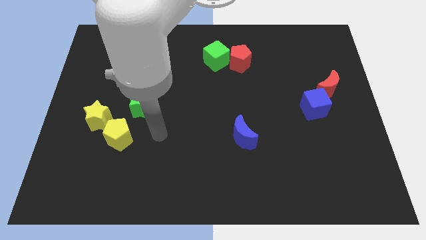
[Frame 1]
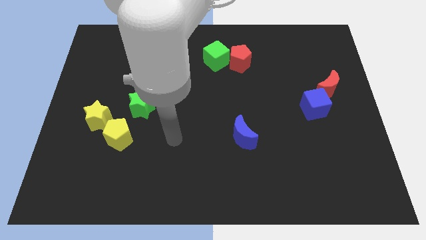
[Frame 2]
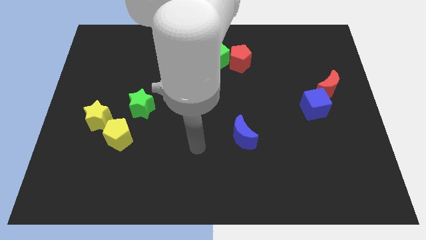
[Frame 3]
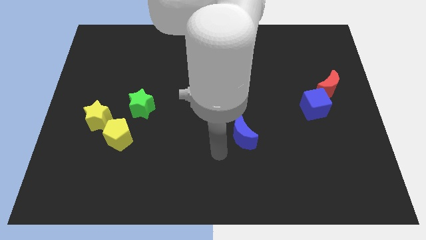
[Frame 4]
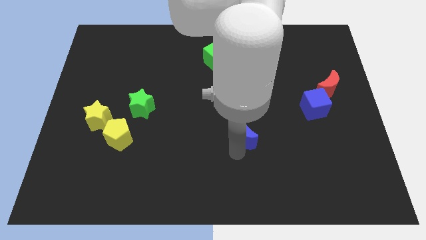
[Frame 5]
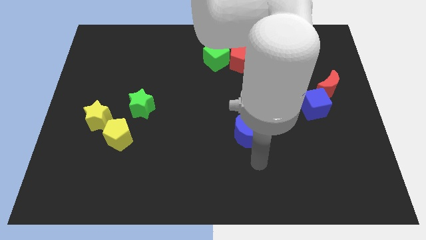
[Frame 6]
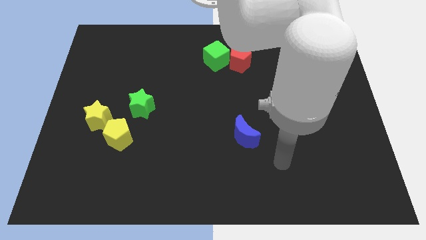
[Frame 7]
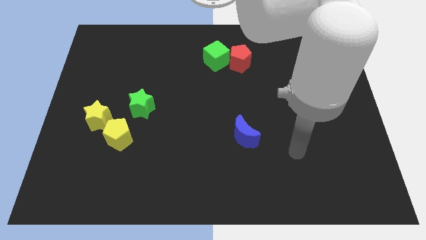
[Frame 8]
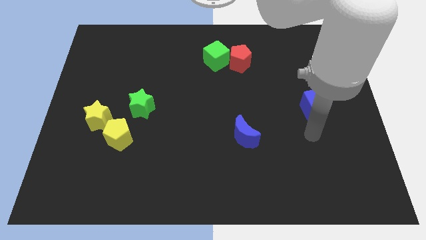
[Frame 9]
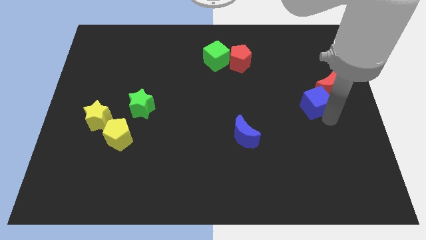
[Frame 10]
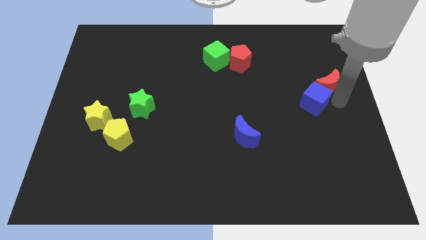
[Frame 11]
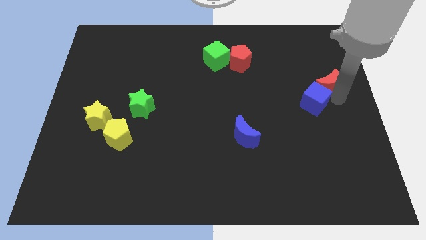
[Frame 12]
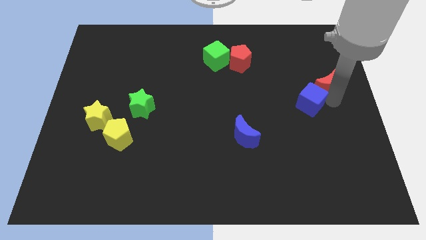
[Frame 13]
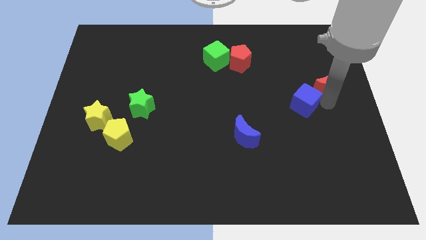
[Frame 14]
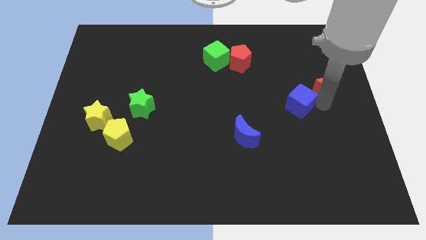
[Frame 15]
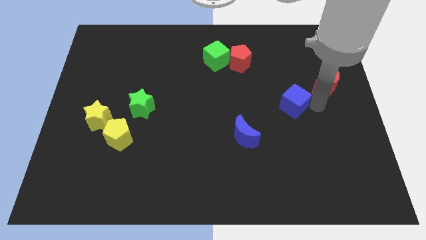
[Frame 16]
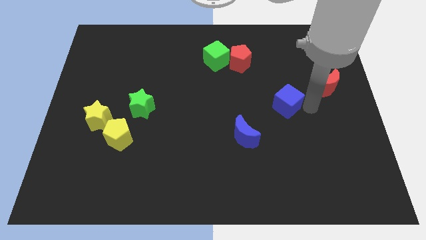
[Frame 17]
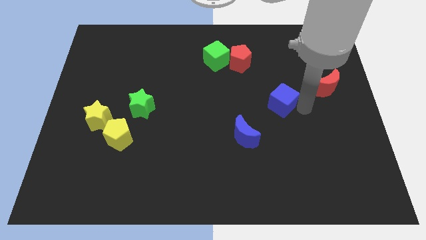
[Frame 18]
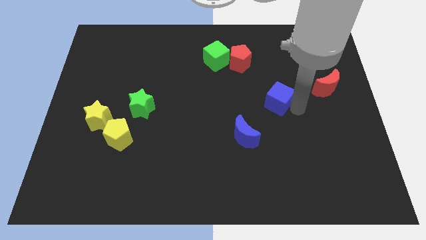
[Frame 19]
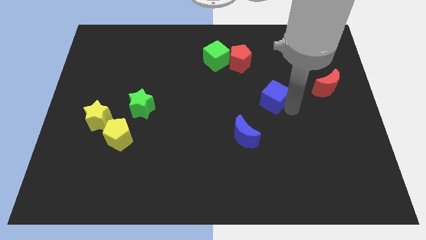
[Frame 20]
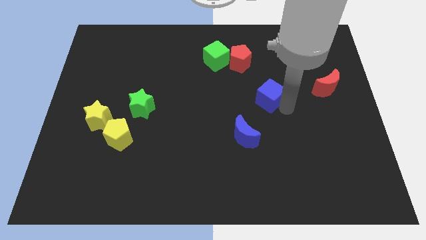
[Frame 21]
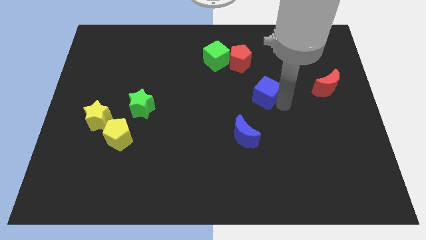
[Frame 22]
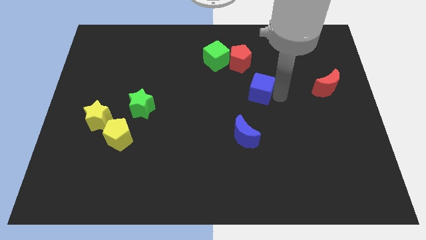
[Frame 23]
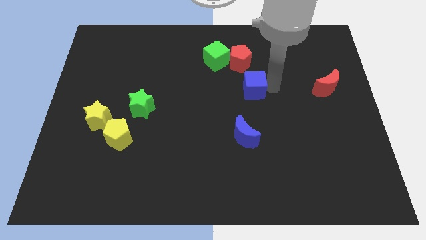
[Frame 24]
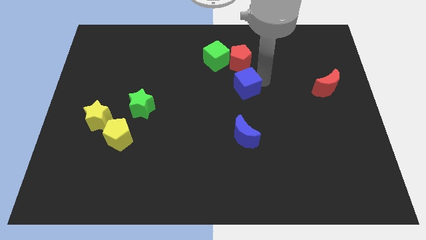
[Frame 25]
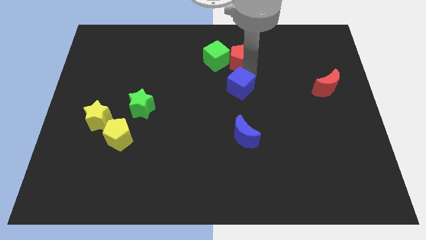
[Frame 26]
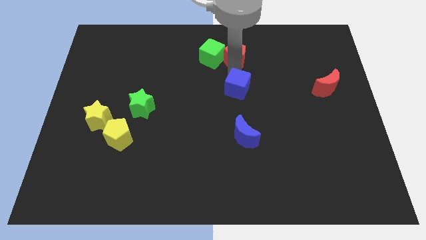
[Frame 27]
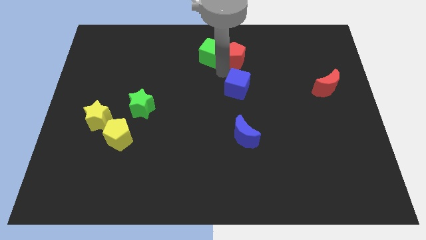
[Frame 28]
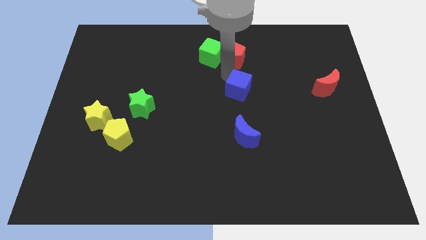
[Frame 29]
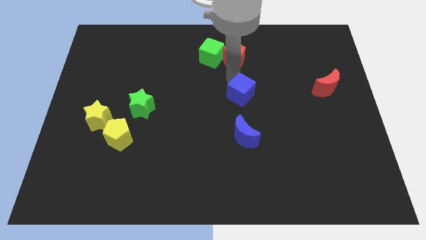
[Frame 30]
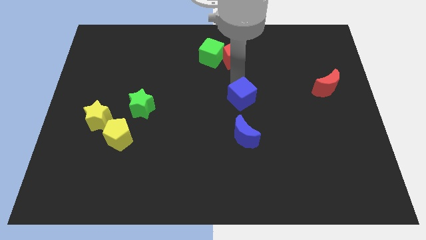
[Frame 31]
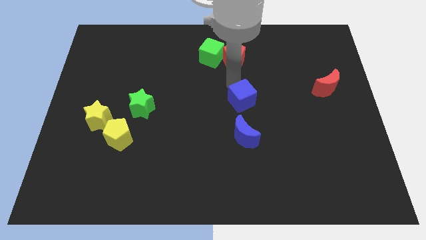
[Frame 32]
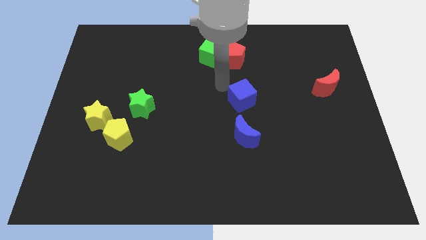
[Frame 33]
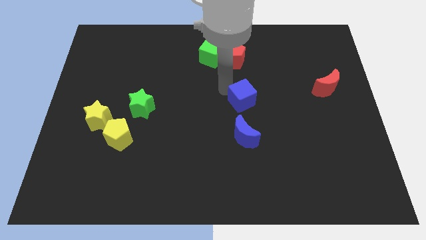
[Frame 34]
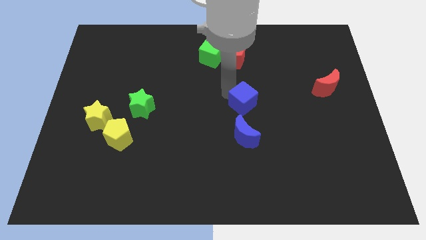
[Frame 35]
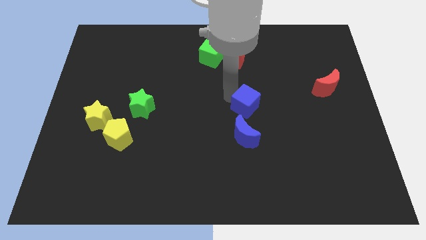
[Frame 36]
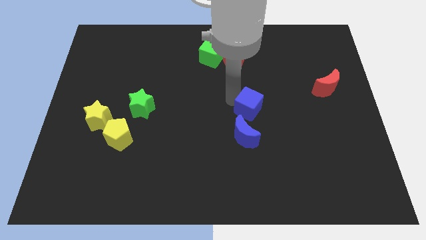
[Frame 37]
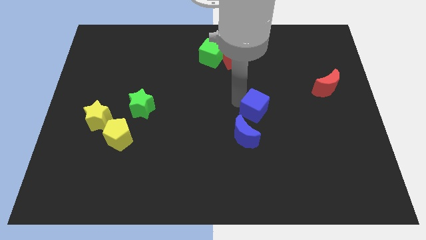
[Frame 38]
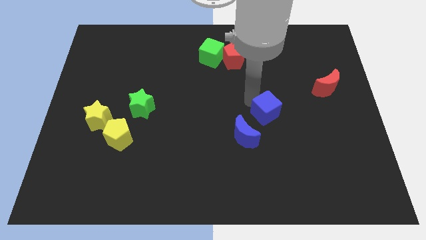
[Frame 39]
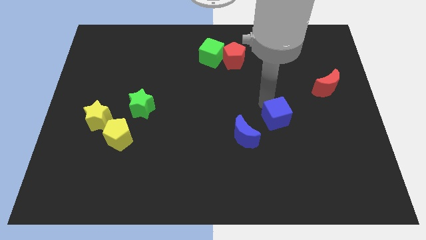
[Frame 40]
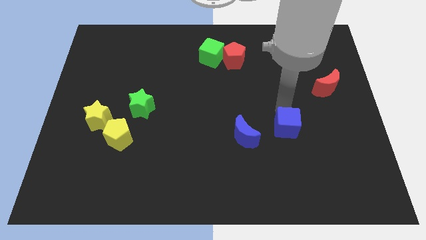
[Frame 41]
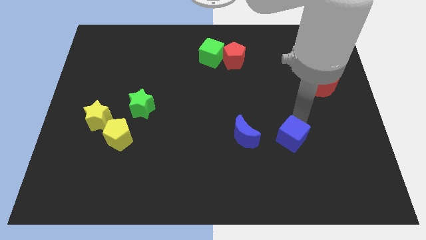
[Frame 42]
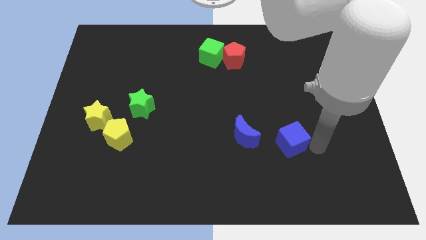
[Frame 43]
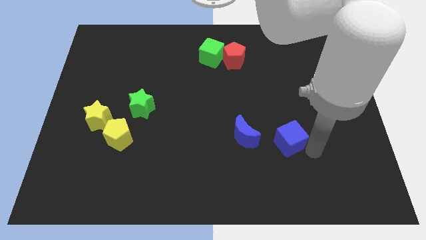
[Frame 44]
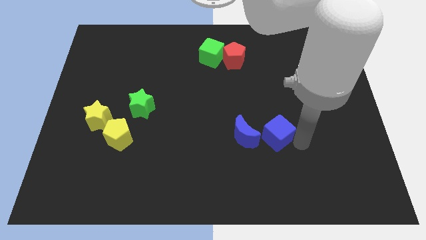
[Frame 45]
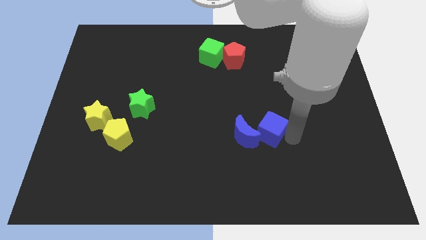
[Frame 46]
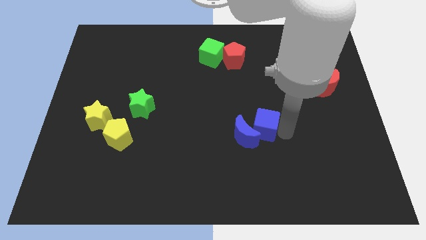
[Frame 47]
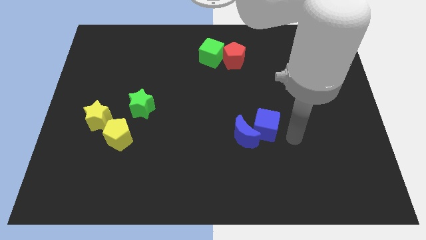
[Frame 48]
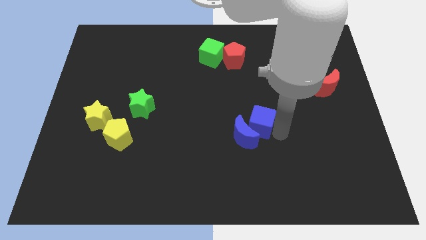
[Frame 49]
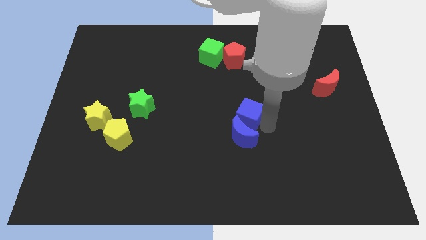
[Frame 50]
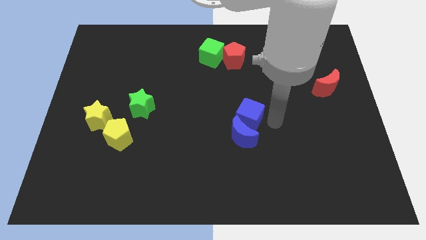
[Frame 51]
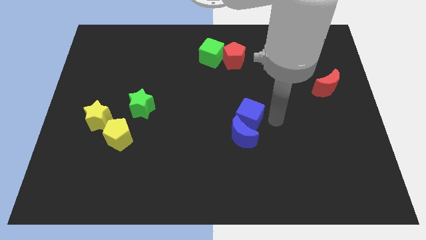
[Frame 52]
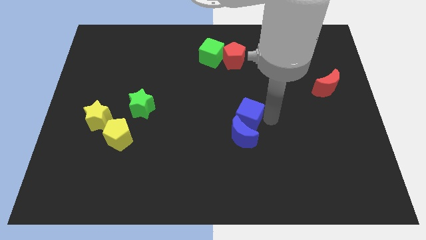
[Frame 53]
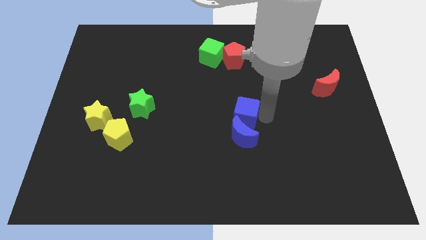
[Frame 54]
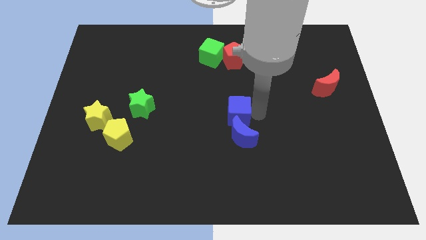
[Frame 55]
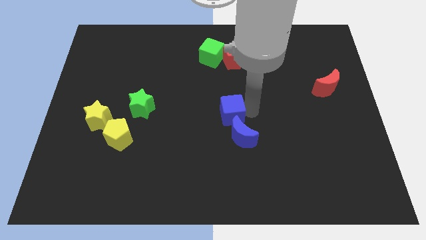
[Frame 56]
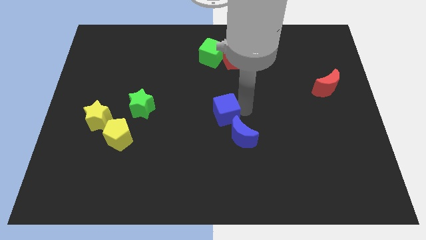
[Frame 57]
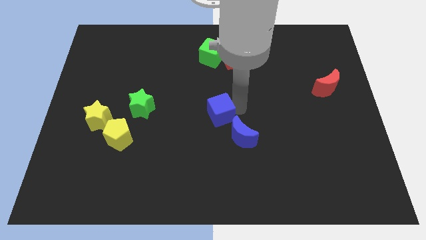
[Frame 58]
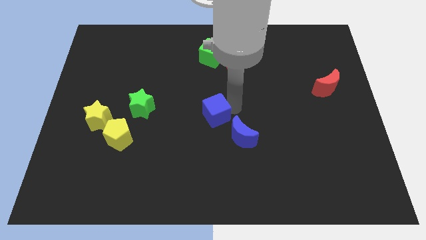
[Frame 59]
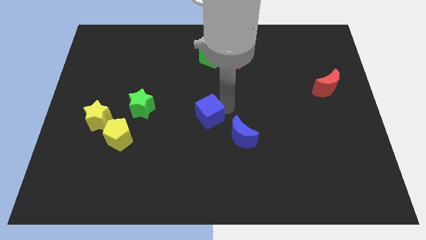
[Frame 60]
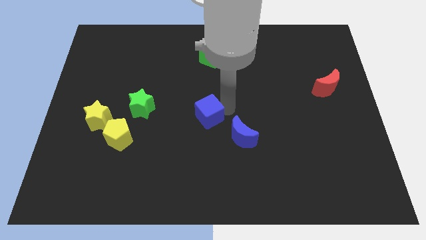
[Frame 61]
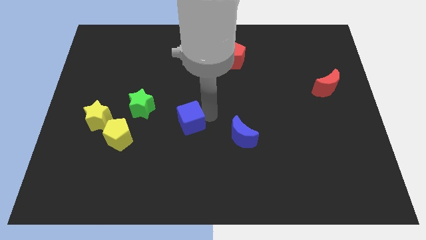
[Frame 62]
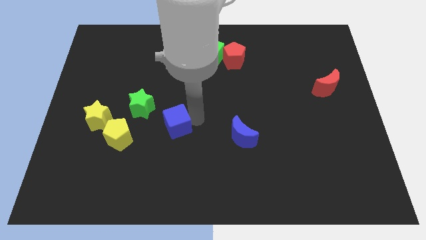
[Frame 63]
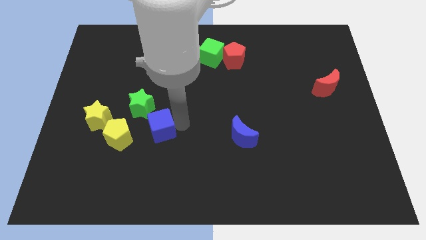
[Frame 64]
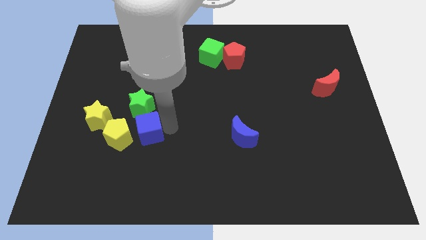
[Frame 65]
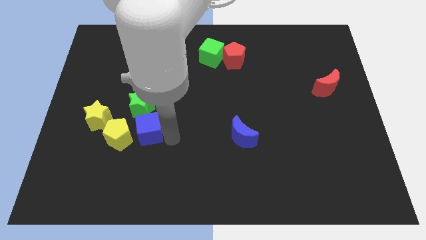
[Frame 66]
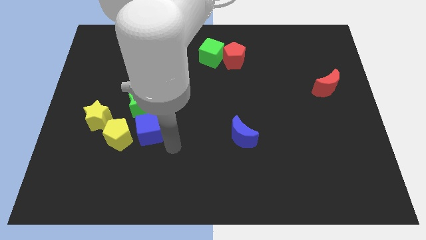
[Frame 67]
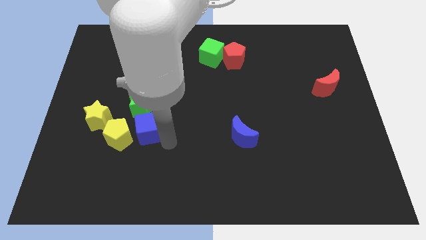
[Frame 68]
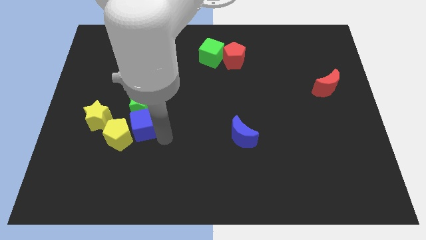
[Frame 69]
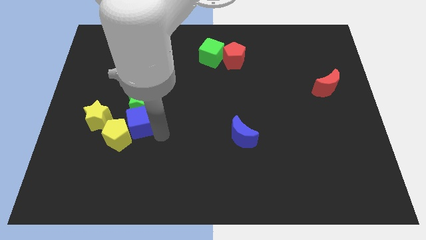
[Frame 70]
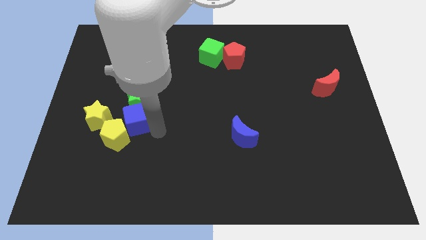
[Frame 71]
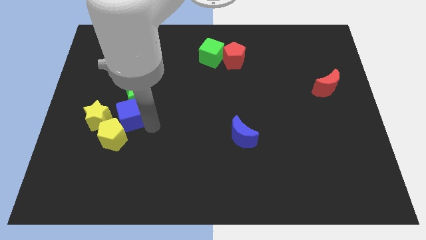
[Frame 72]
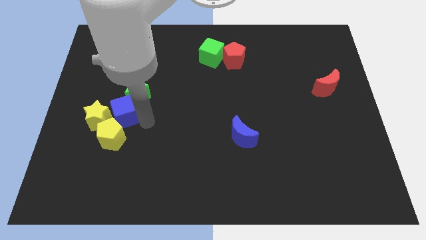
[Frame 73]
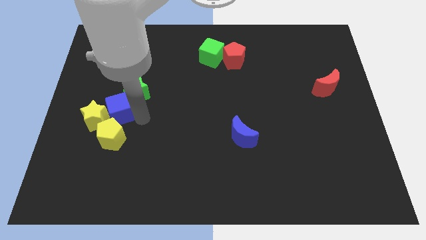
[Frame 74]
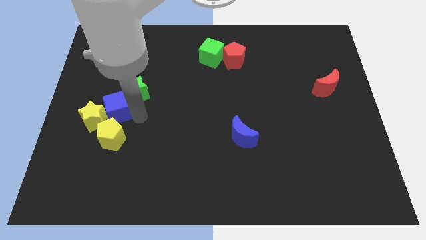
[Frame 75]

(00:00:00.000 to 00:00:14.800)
put the blue cube left of the green star
